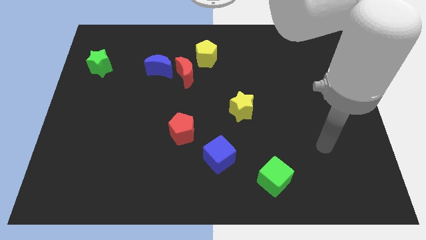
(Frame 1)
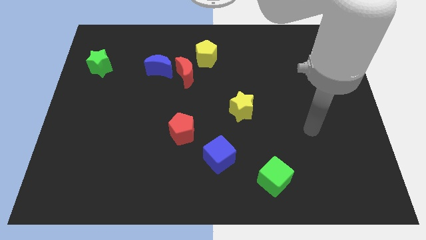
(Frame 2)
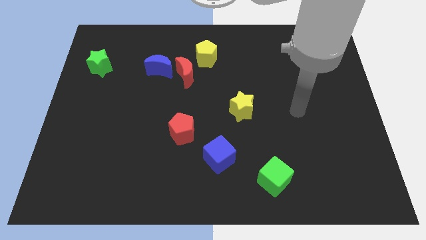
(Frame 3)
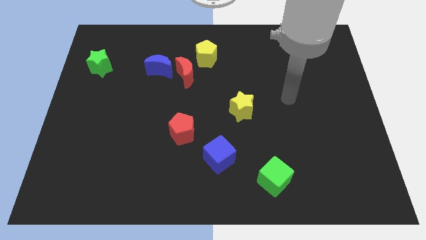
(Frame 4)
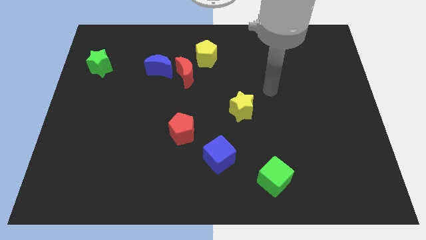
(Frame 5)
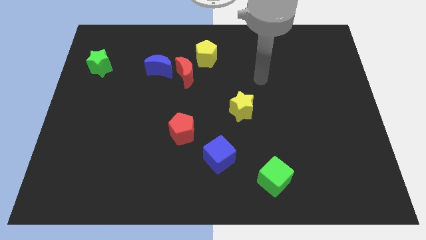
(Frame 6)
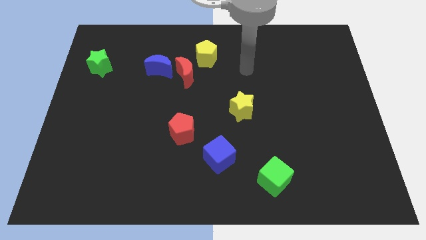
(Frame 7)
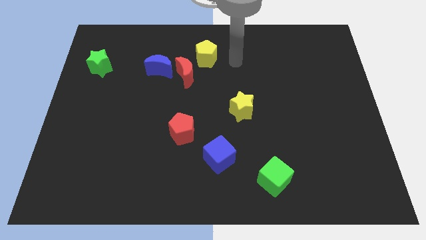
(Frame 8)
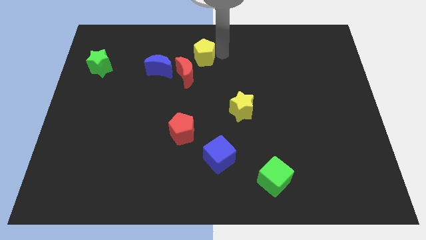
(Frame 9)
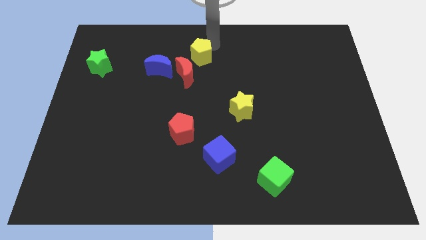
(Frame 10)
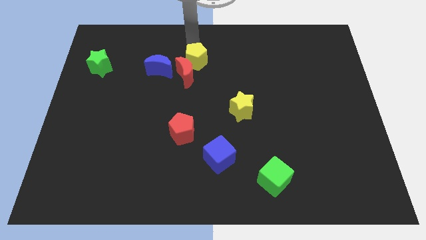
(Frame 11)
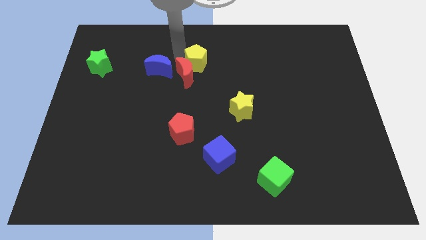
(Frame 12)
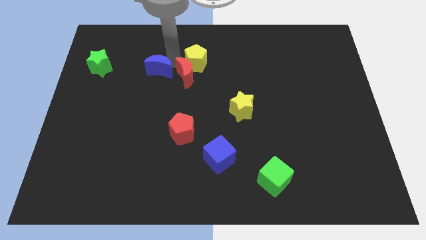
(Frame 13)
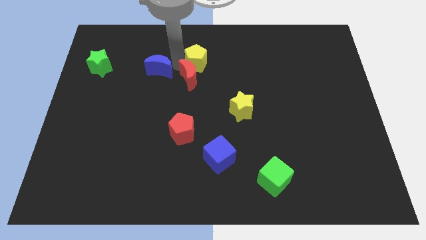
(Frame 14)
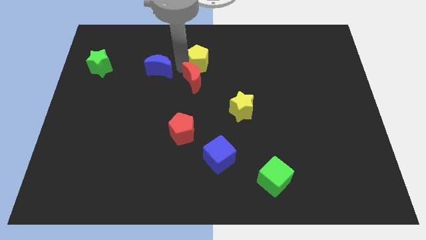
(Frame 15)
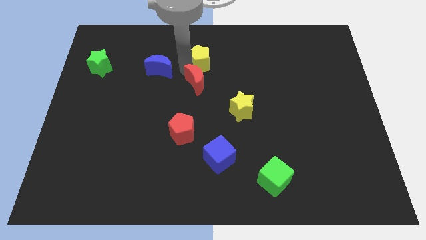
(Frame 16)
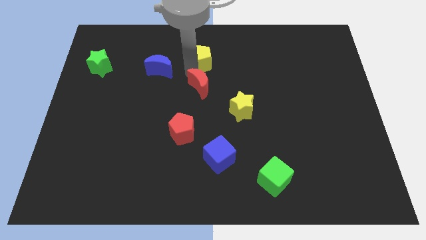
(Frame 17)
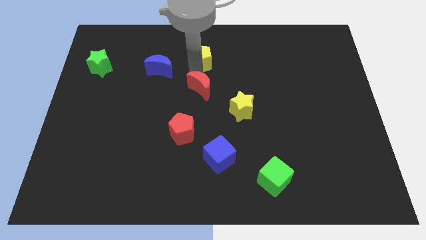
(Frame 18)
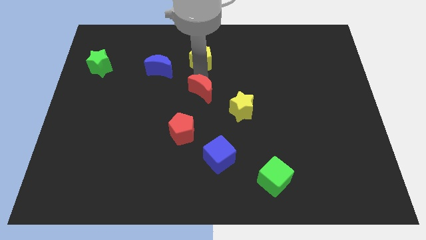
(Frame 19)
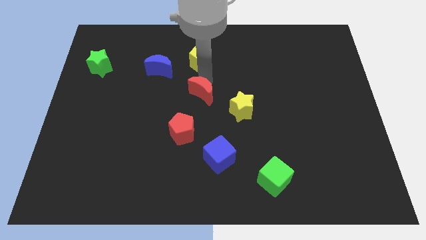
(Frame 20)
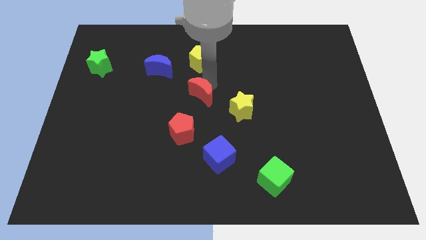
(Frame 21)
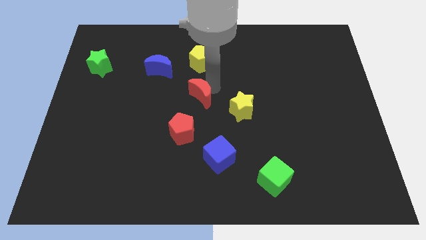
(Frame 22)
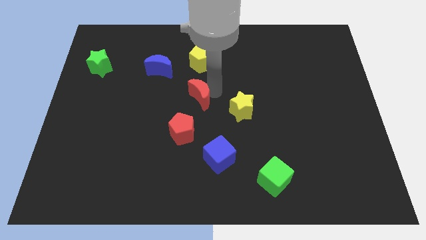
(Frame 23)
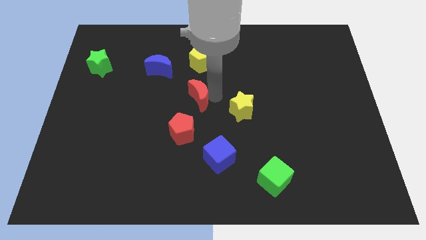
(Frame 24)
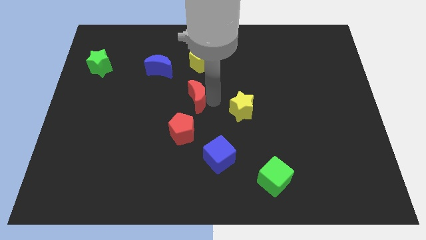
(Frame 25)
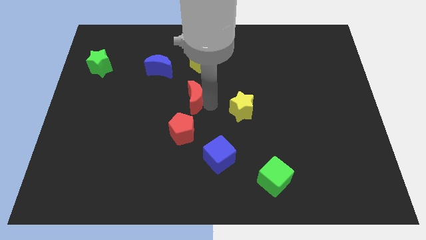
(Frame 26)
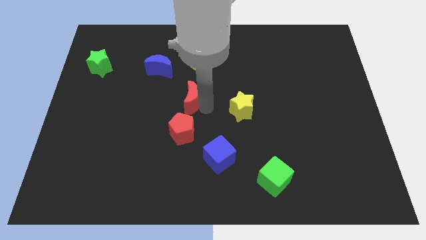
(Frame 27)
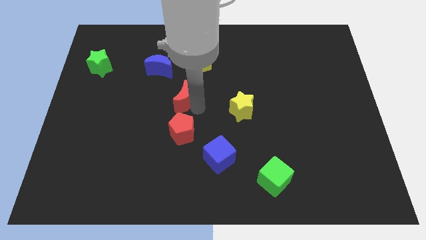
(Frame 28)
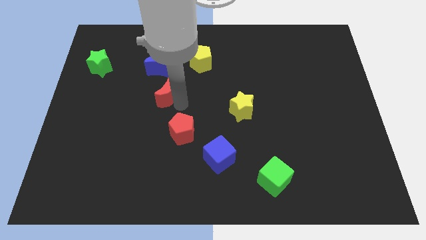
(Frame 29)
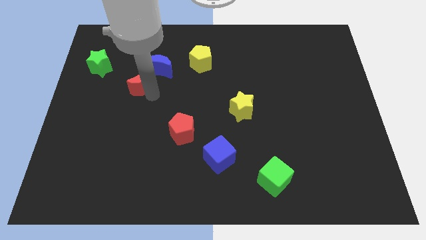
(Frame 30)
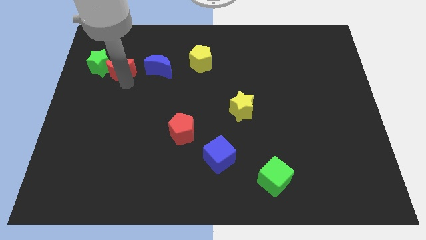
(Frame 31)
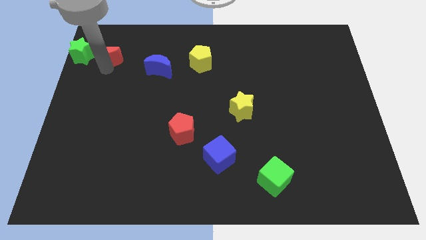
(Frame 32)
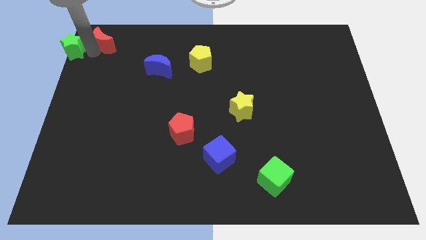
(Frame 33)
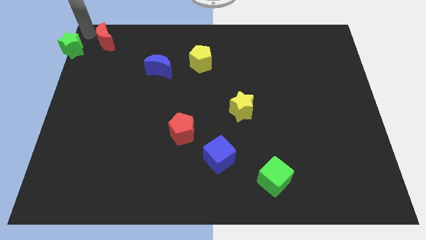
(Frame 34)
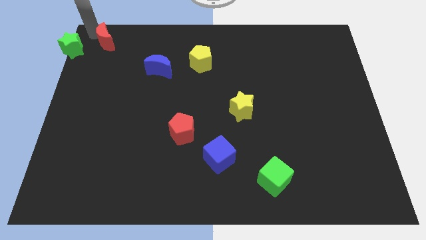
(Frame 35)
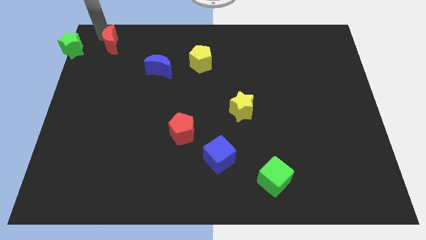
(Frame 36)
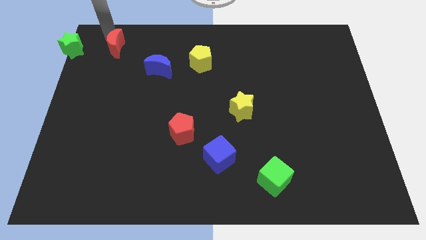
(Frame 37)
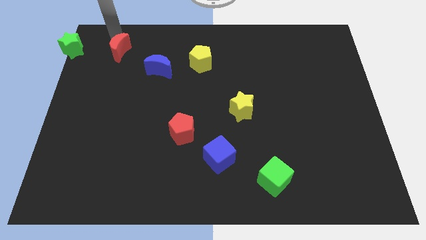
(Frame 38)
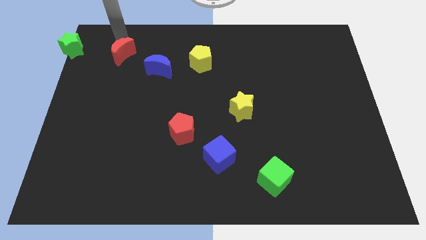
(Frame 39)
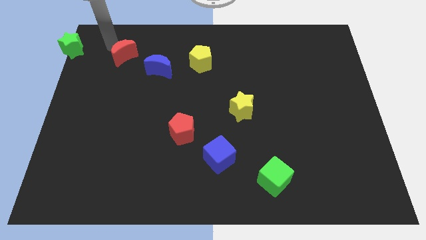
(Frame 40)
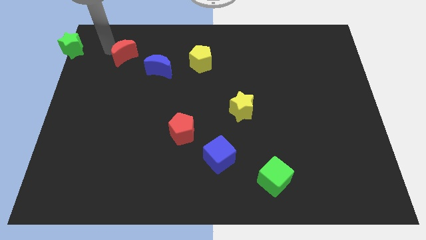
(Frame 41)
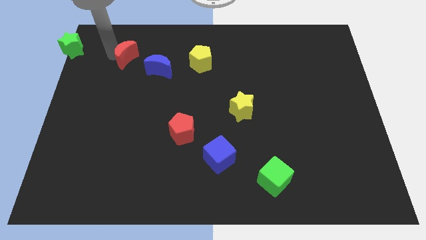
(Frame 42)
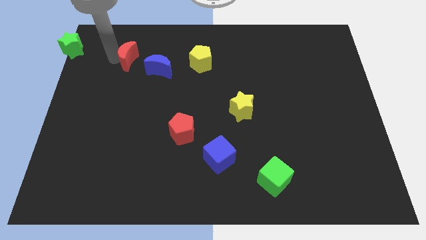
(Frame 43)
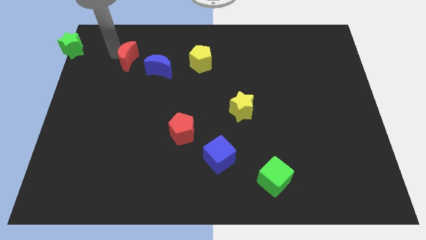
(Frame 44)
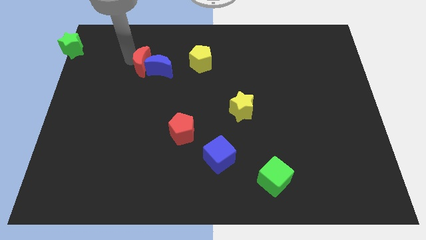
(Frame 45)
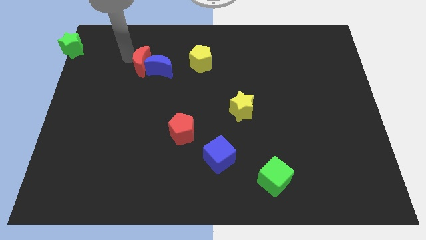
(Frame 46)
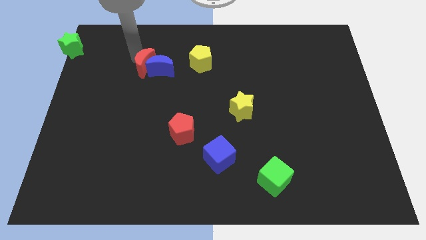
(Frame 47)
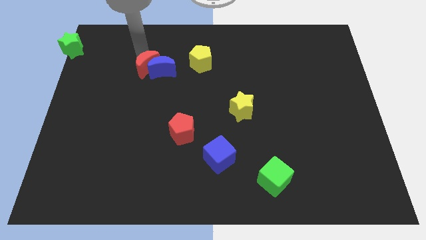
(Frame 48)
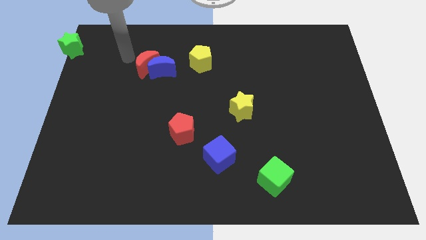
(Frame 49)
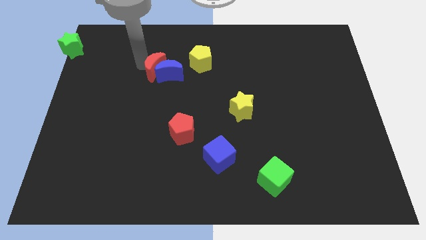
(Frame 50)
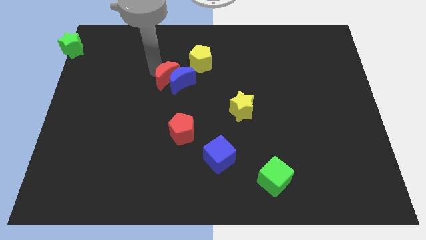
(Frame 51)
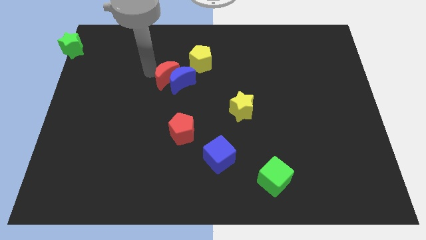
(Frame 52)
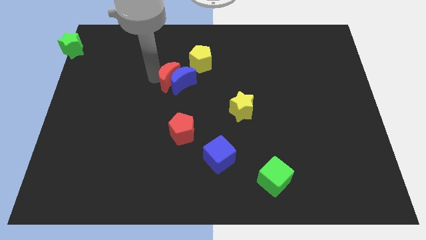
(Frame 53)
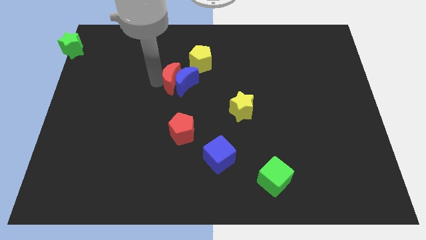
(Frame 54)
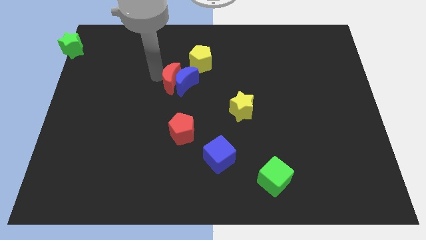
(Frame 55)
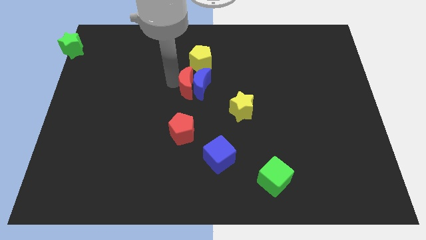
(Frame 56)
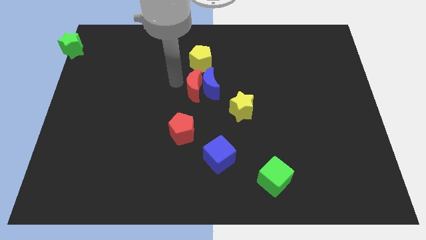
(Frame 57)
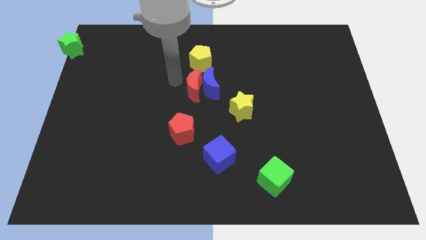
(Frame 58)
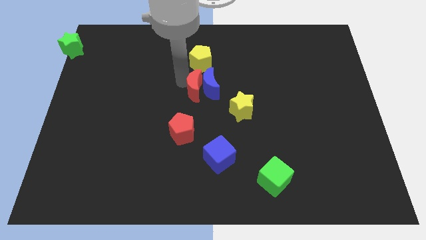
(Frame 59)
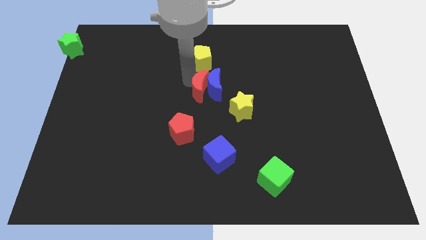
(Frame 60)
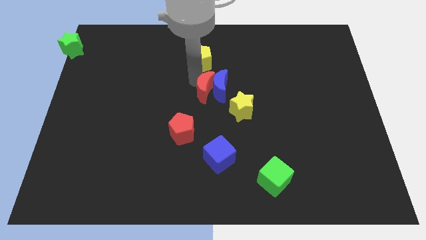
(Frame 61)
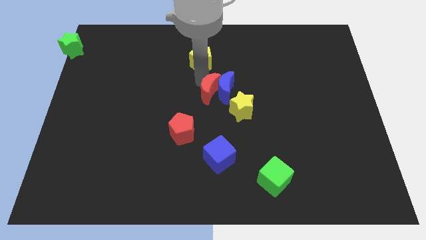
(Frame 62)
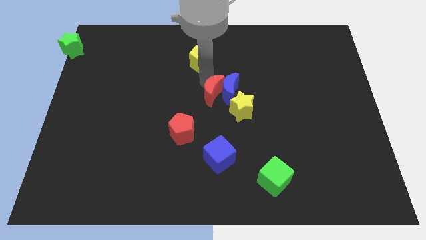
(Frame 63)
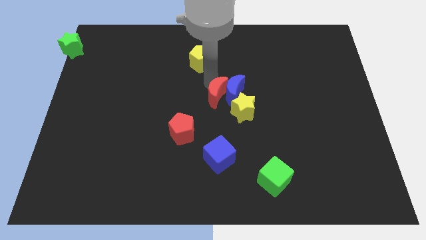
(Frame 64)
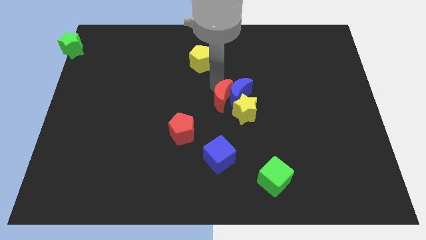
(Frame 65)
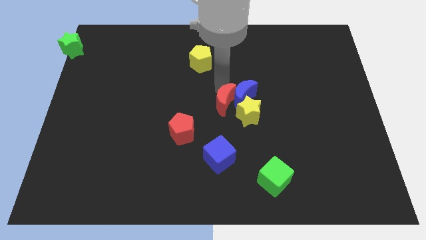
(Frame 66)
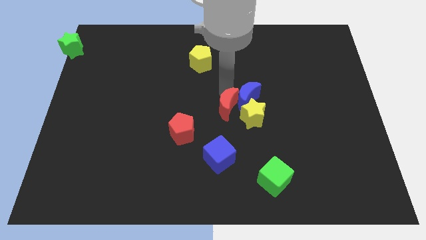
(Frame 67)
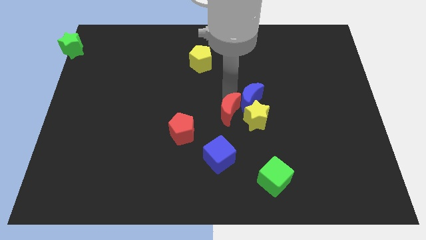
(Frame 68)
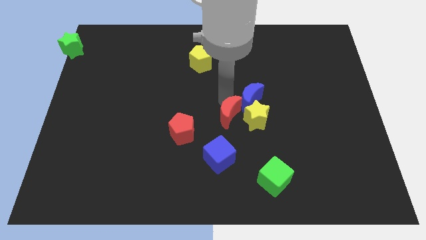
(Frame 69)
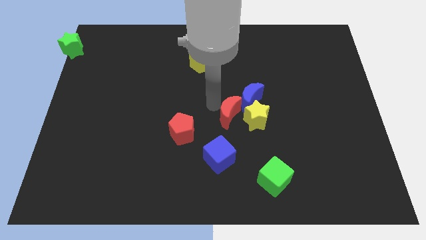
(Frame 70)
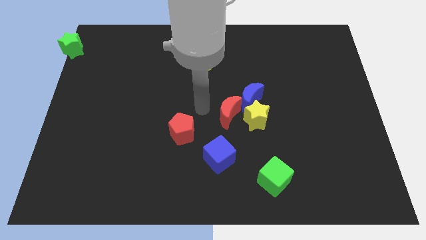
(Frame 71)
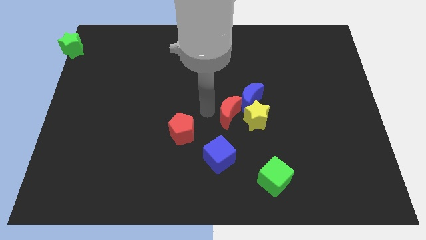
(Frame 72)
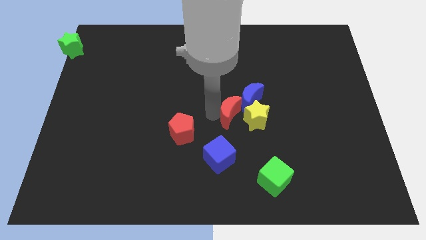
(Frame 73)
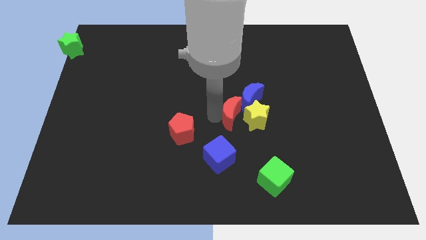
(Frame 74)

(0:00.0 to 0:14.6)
put the red moon next to the yellow star
